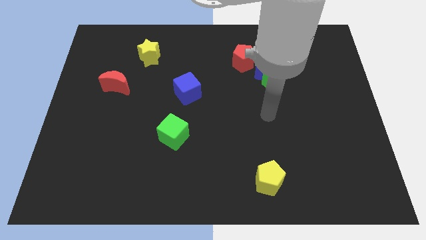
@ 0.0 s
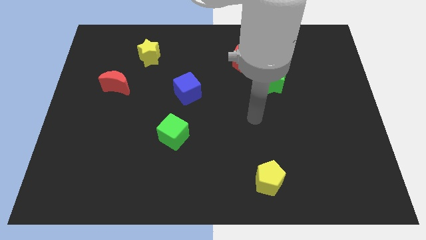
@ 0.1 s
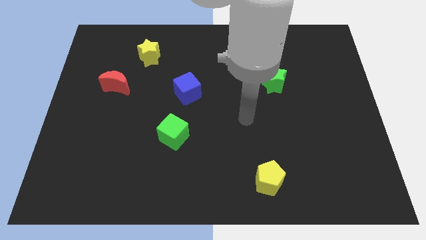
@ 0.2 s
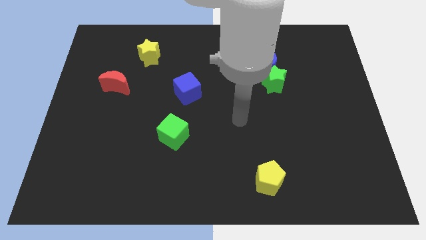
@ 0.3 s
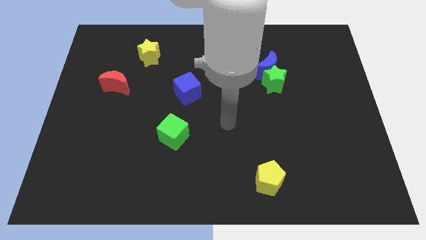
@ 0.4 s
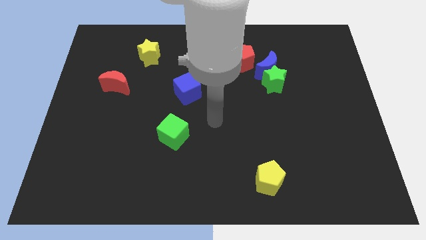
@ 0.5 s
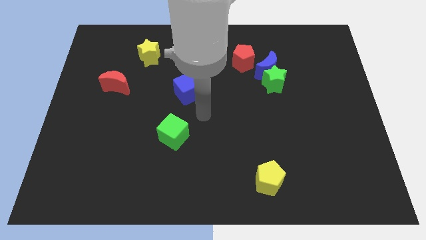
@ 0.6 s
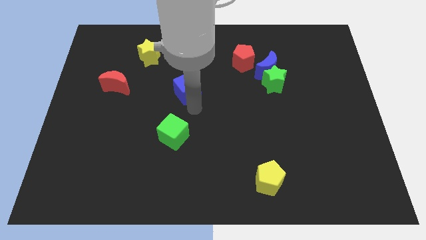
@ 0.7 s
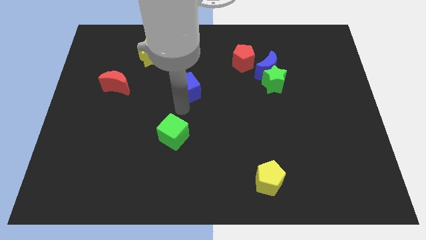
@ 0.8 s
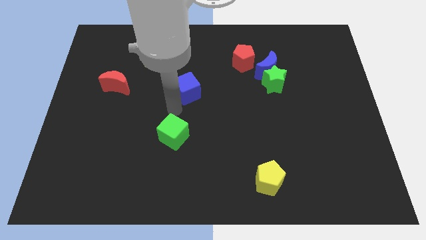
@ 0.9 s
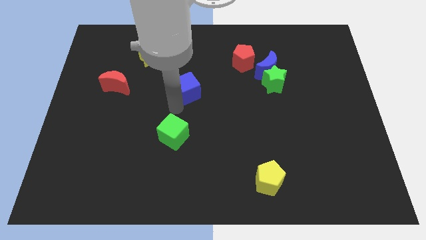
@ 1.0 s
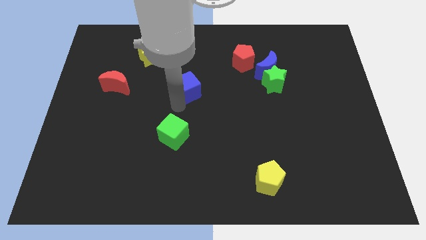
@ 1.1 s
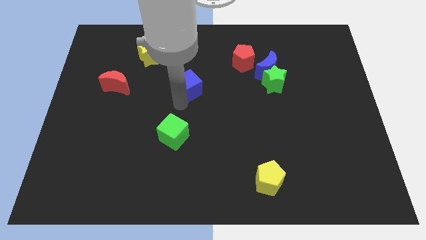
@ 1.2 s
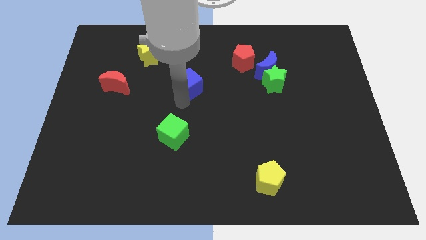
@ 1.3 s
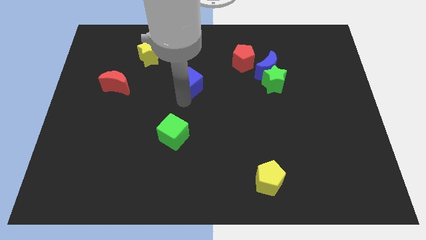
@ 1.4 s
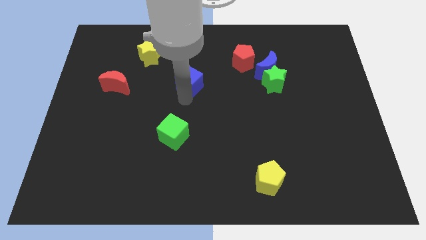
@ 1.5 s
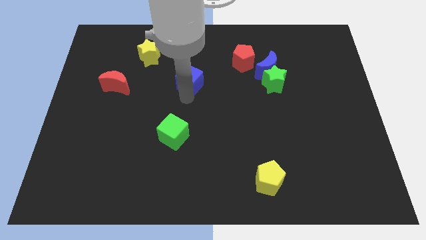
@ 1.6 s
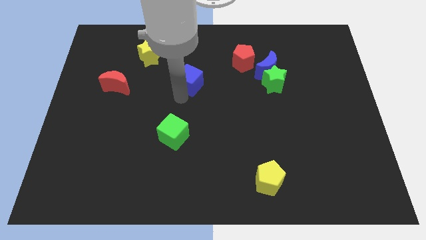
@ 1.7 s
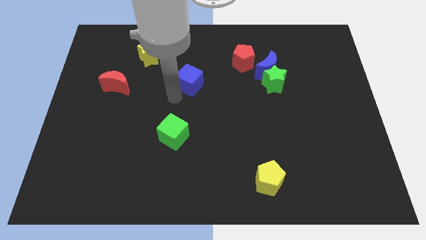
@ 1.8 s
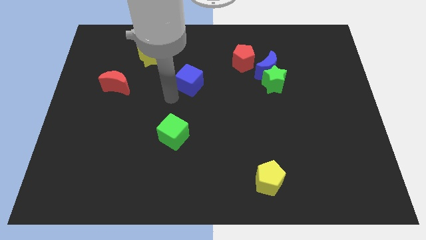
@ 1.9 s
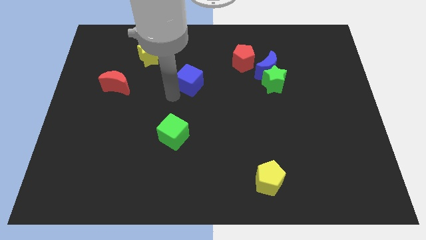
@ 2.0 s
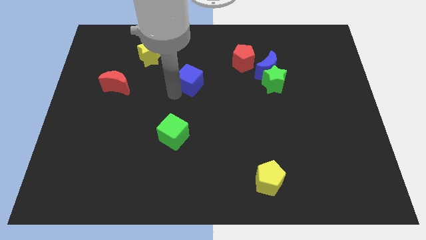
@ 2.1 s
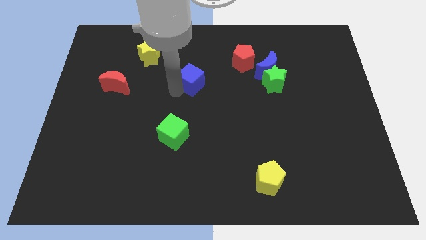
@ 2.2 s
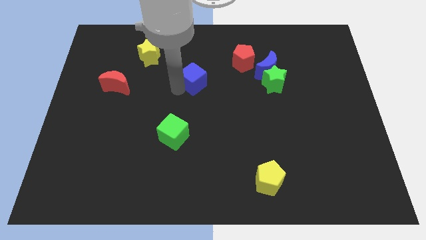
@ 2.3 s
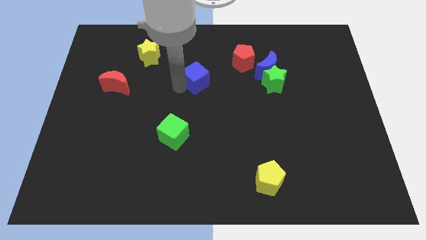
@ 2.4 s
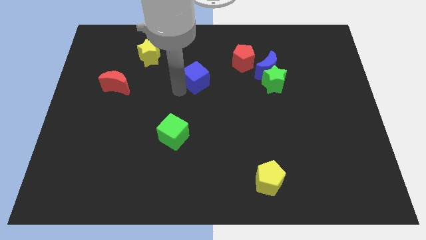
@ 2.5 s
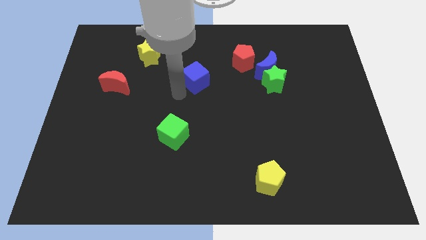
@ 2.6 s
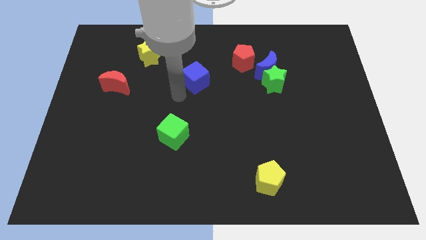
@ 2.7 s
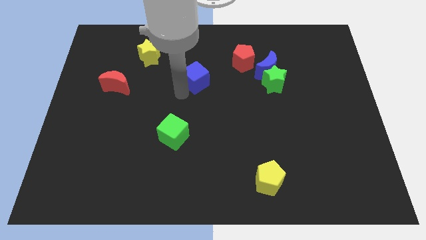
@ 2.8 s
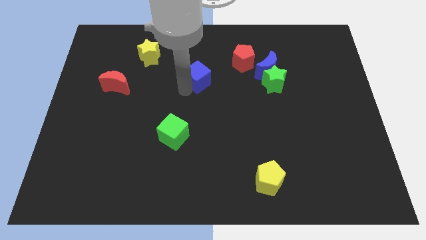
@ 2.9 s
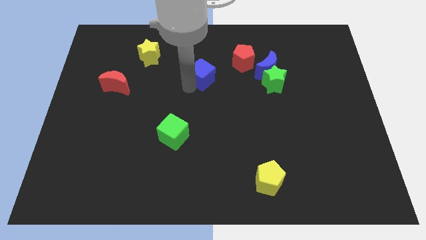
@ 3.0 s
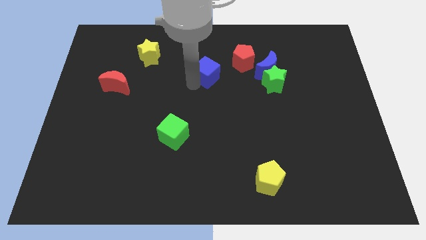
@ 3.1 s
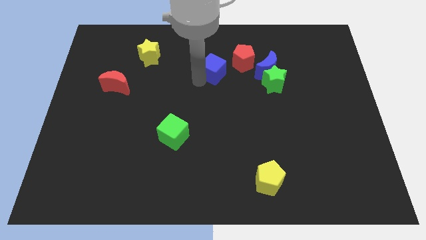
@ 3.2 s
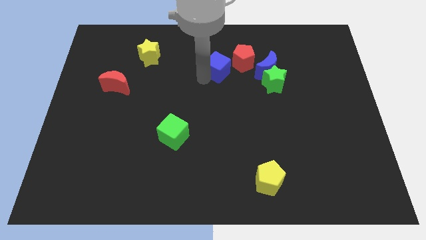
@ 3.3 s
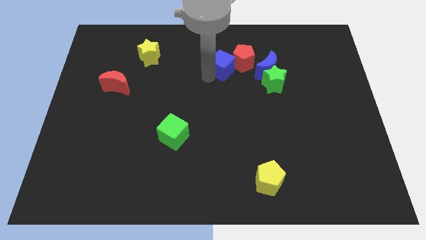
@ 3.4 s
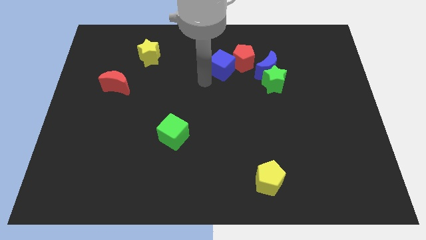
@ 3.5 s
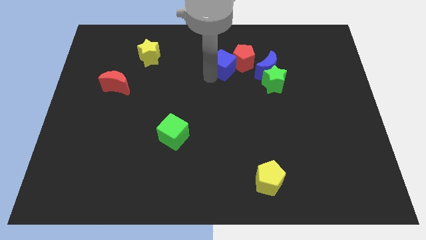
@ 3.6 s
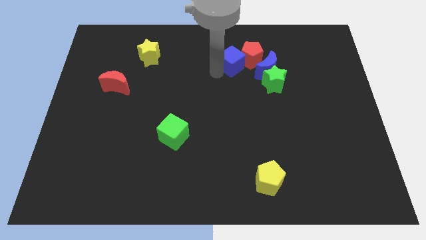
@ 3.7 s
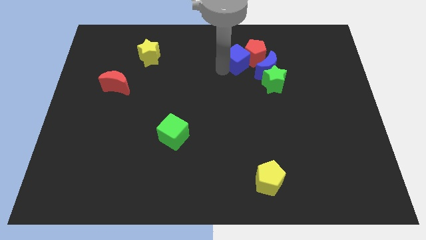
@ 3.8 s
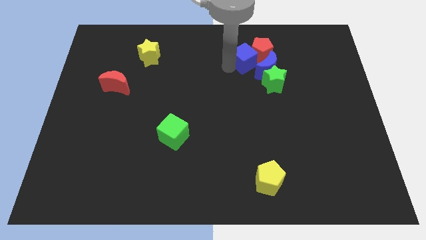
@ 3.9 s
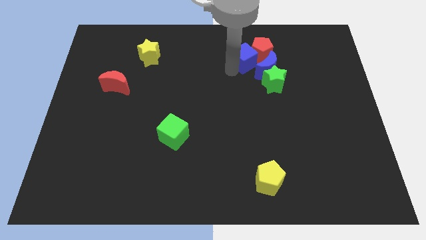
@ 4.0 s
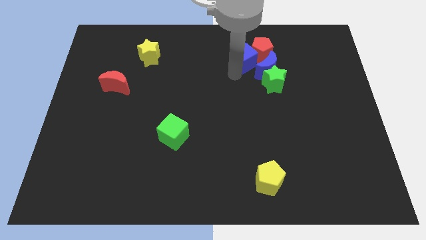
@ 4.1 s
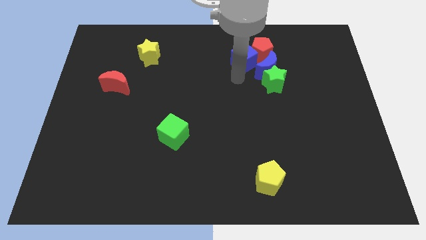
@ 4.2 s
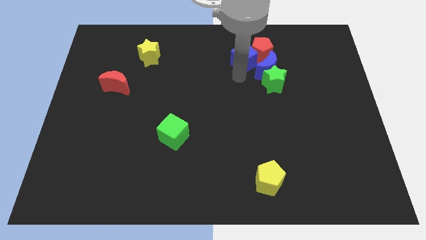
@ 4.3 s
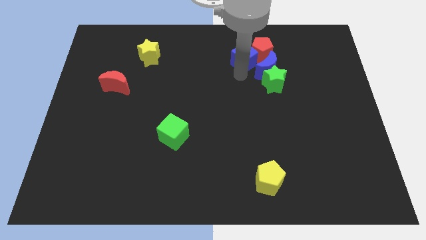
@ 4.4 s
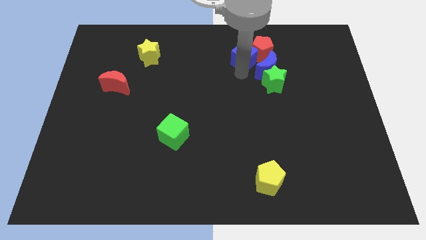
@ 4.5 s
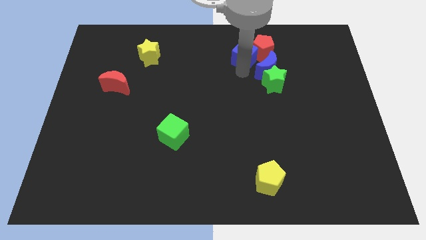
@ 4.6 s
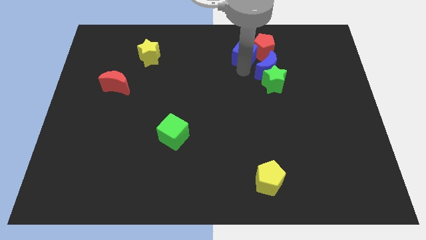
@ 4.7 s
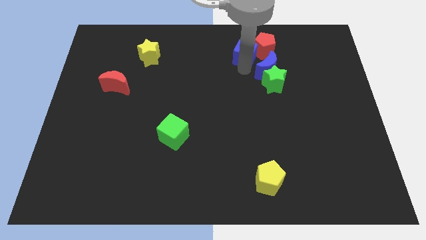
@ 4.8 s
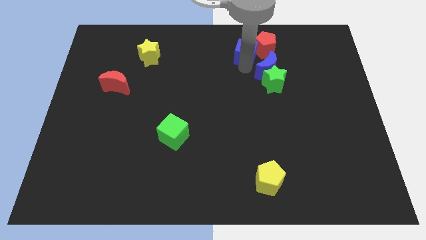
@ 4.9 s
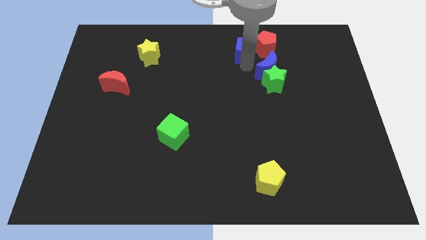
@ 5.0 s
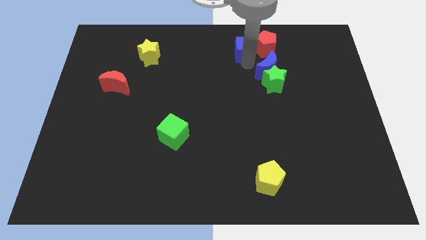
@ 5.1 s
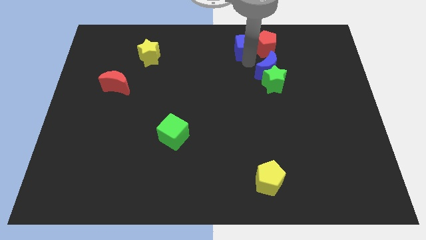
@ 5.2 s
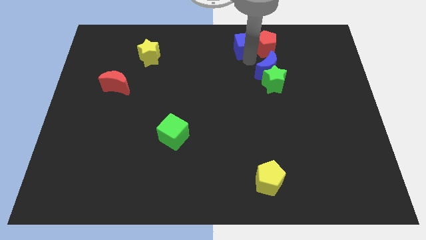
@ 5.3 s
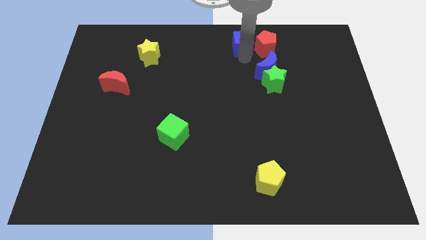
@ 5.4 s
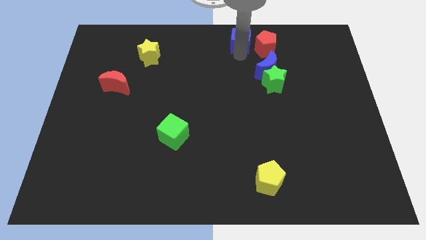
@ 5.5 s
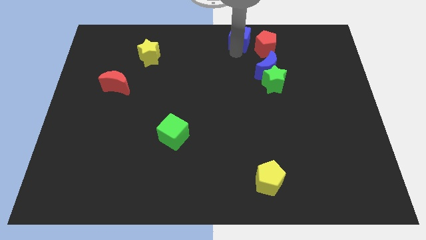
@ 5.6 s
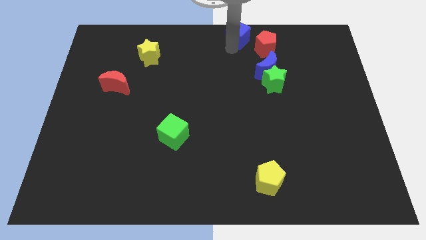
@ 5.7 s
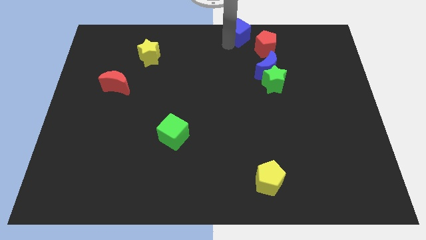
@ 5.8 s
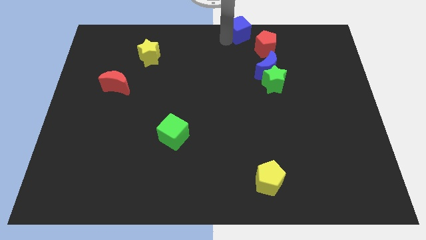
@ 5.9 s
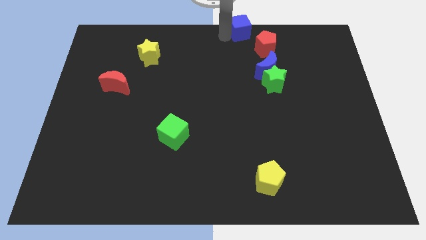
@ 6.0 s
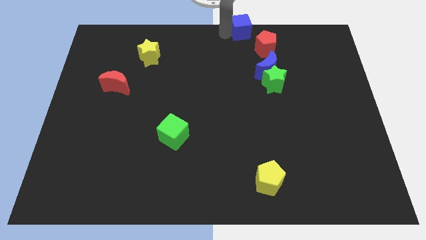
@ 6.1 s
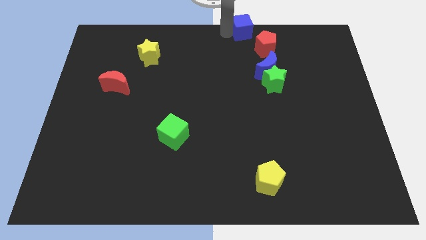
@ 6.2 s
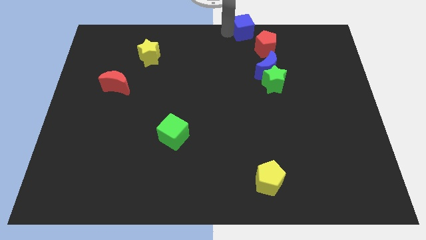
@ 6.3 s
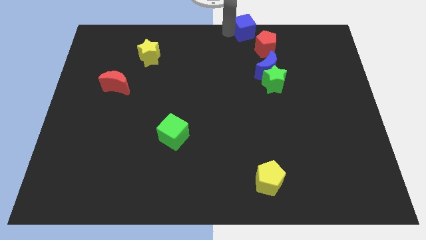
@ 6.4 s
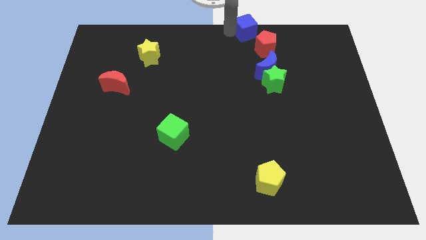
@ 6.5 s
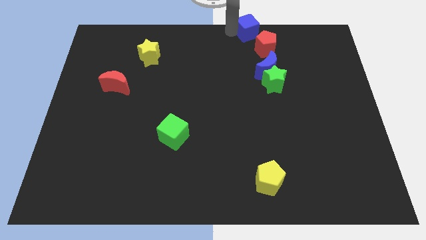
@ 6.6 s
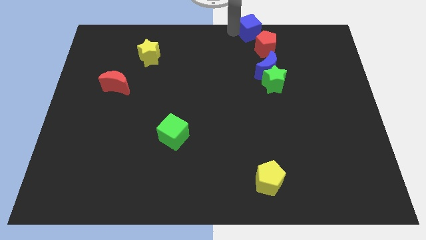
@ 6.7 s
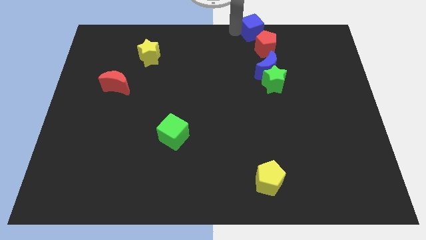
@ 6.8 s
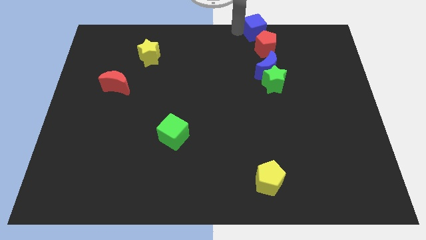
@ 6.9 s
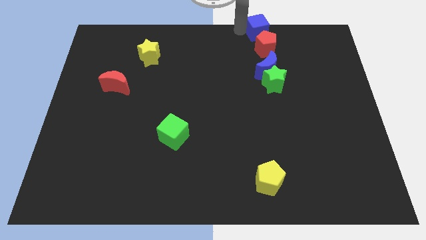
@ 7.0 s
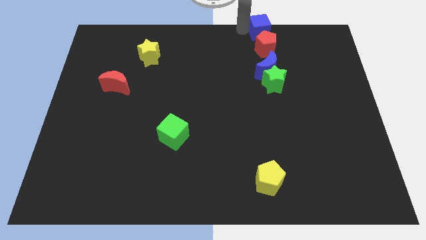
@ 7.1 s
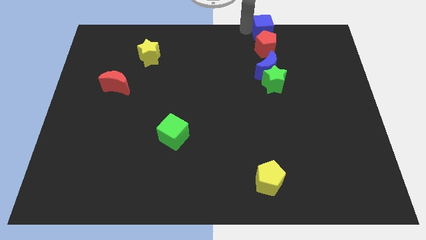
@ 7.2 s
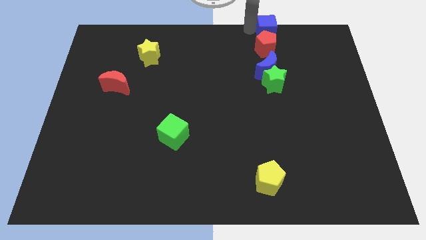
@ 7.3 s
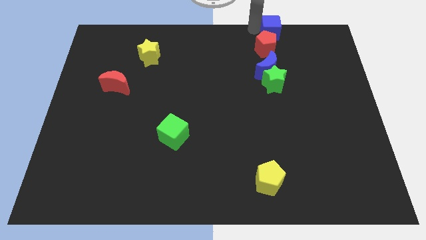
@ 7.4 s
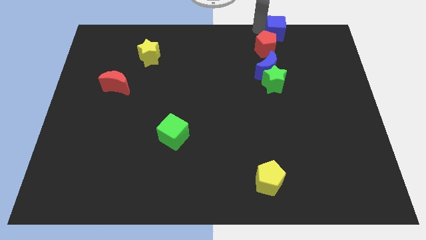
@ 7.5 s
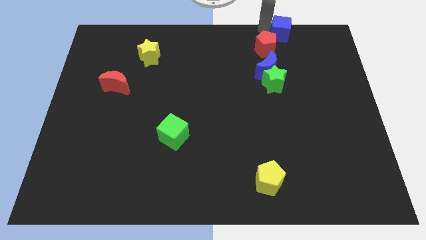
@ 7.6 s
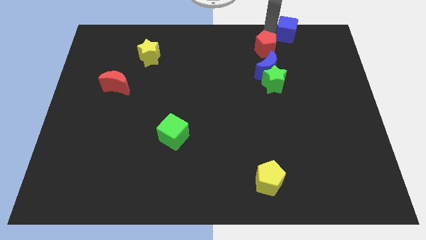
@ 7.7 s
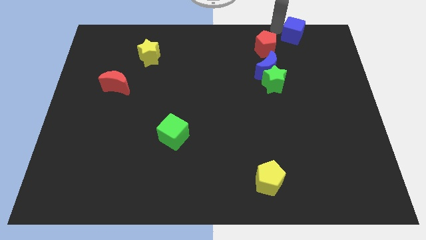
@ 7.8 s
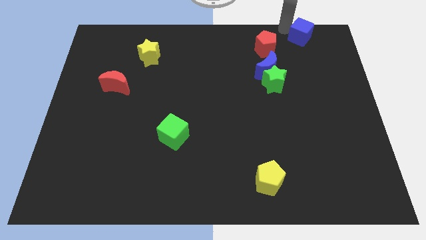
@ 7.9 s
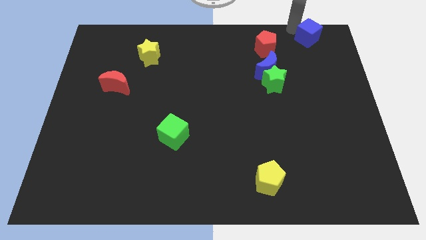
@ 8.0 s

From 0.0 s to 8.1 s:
push the blue cube to the upper right corner
